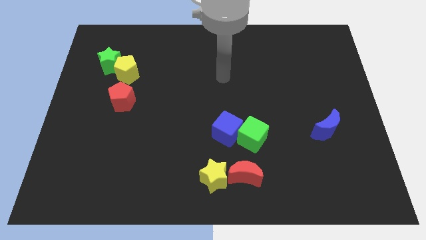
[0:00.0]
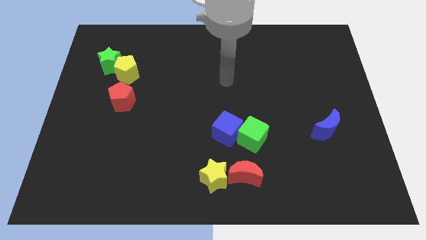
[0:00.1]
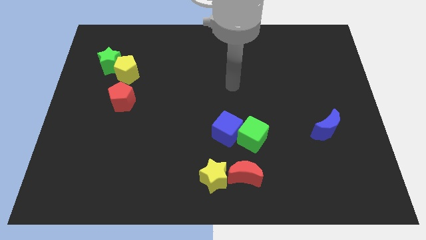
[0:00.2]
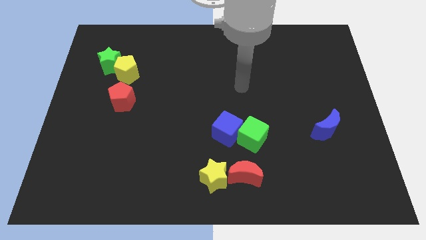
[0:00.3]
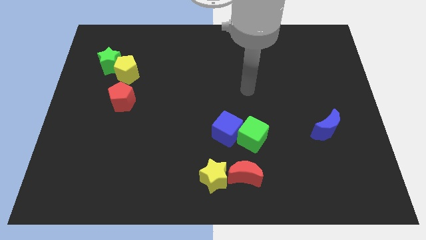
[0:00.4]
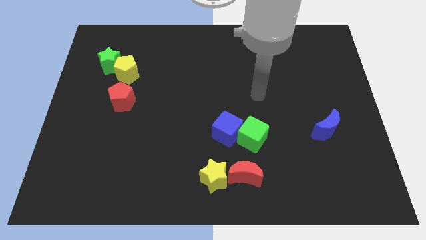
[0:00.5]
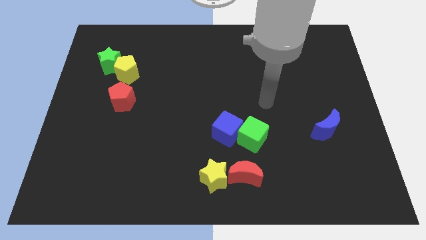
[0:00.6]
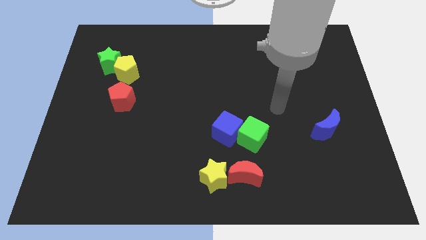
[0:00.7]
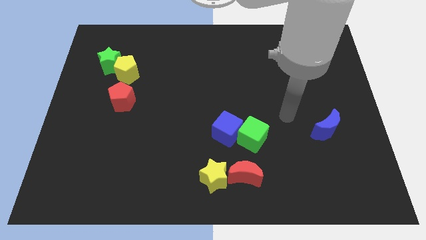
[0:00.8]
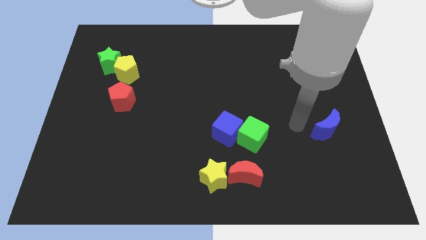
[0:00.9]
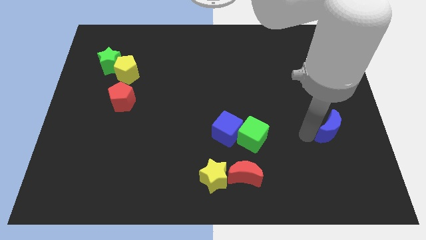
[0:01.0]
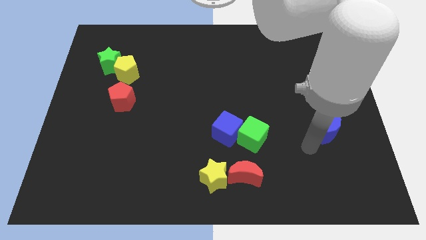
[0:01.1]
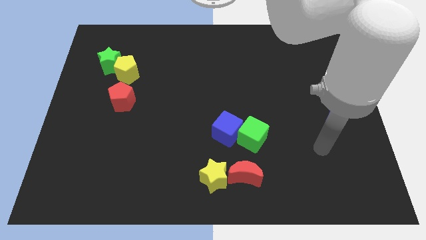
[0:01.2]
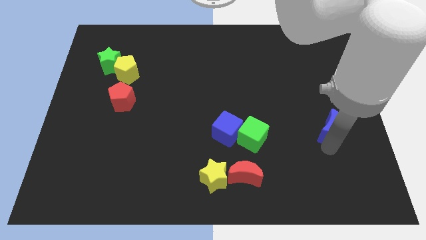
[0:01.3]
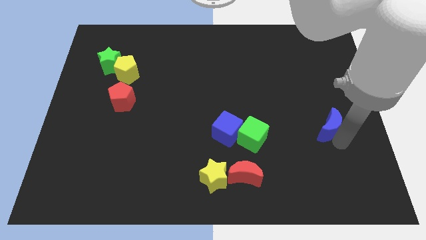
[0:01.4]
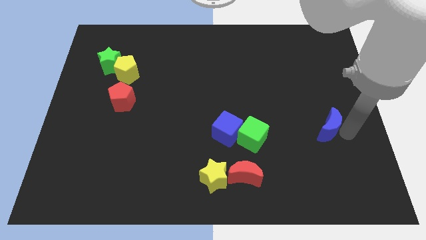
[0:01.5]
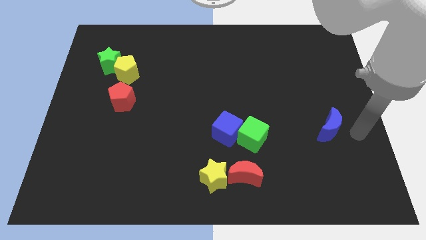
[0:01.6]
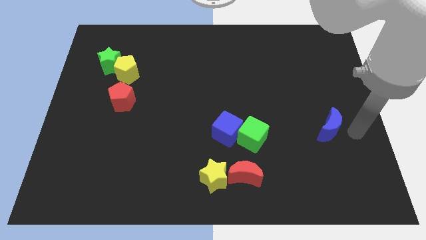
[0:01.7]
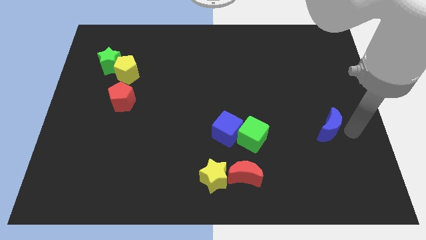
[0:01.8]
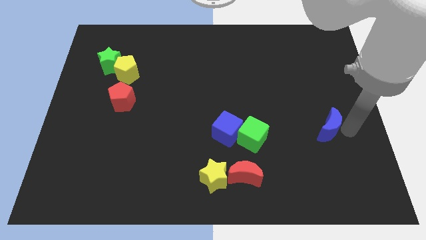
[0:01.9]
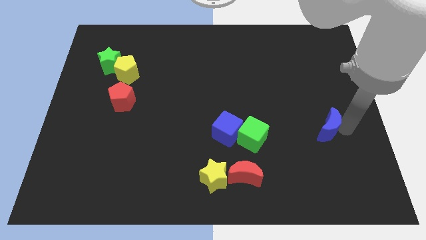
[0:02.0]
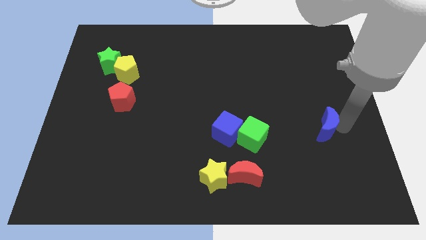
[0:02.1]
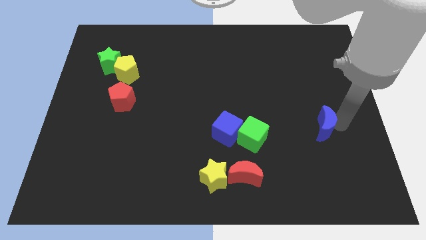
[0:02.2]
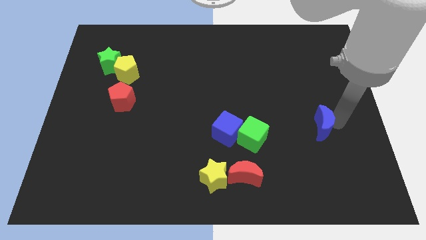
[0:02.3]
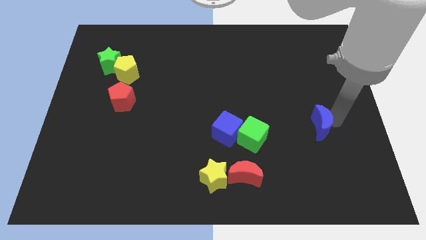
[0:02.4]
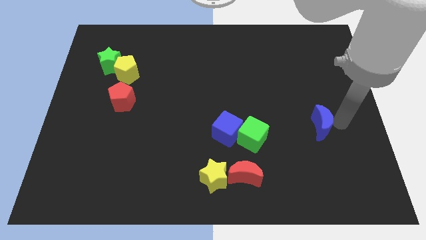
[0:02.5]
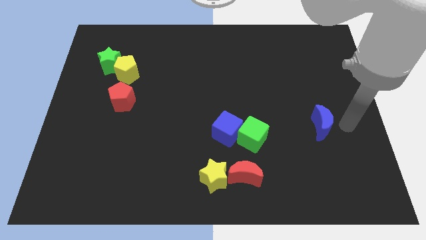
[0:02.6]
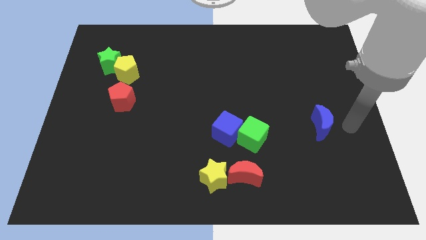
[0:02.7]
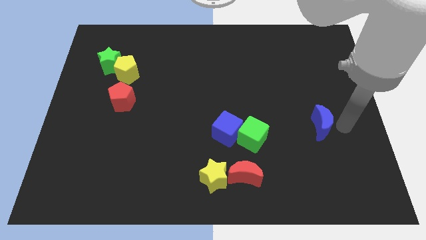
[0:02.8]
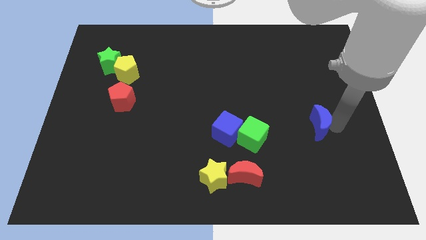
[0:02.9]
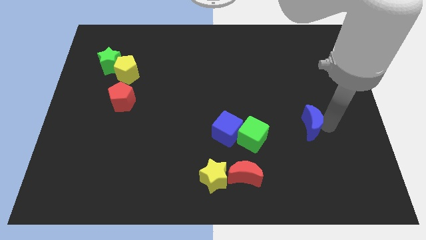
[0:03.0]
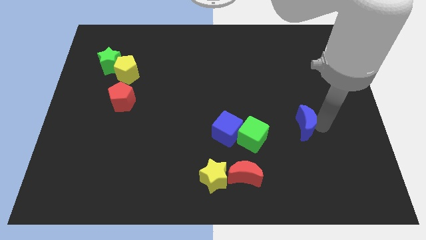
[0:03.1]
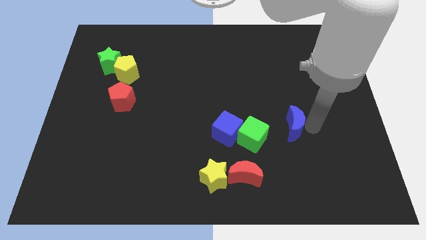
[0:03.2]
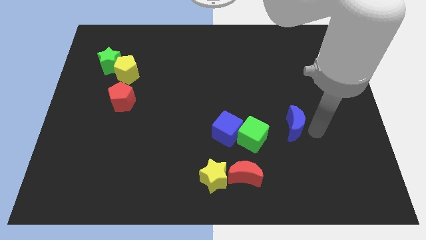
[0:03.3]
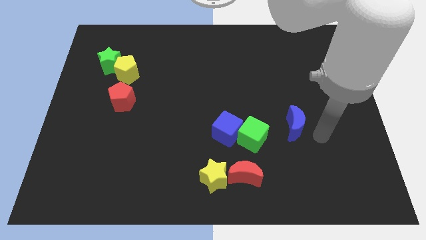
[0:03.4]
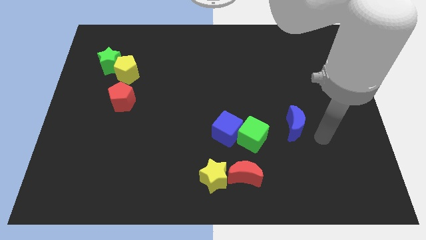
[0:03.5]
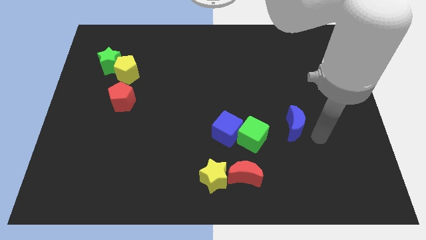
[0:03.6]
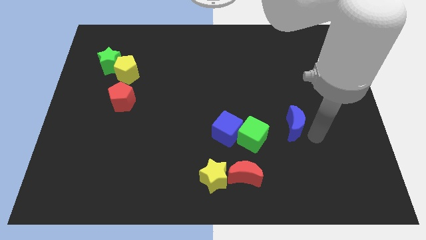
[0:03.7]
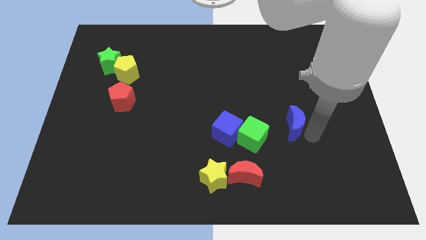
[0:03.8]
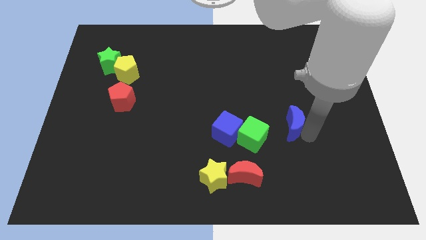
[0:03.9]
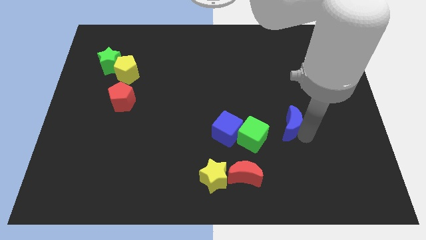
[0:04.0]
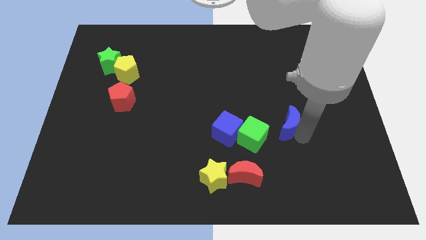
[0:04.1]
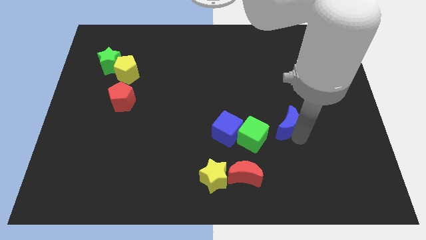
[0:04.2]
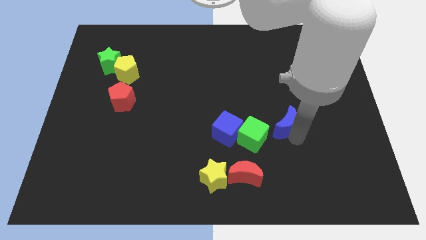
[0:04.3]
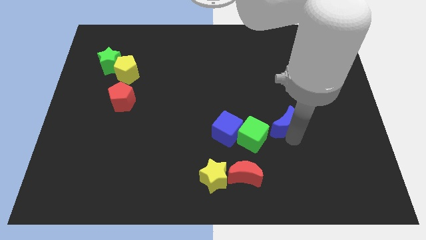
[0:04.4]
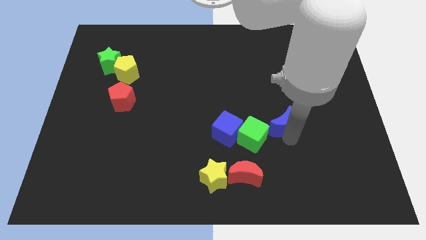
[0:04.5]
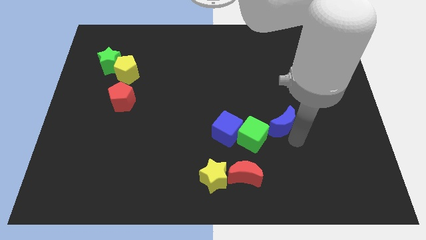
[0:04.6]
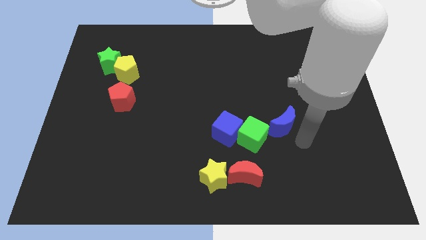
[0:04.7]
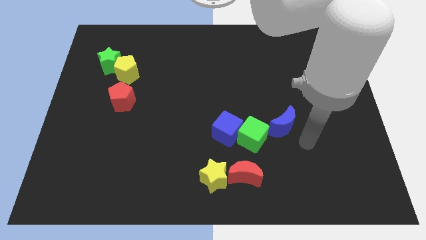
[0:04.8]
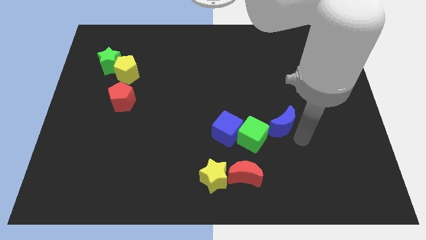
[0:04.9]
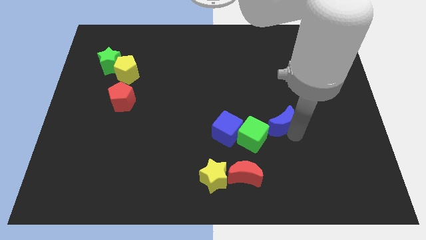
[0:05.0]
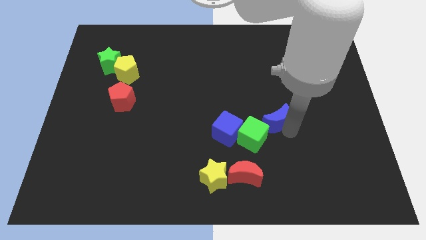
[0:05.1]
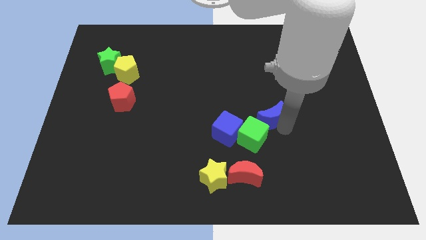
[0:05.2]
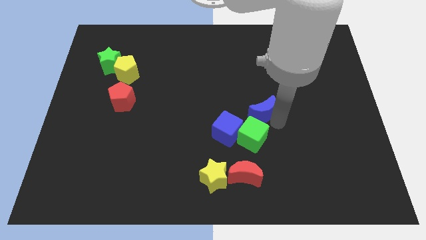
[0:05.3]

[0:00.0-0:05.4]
slide the blue moon to the middle of the board

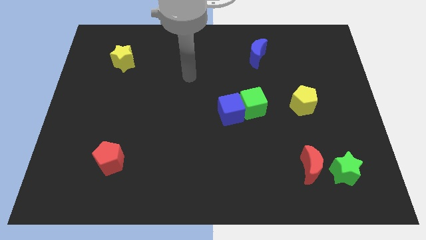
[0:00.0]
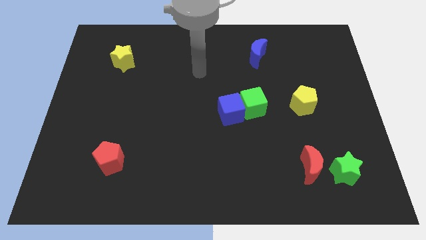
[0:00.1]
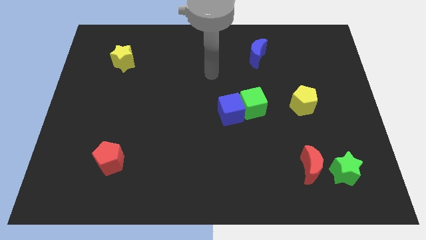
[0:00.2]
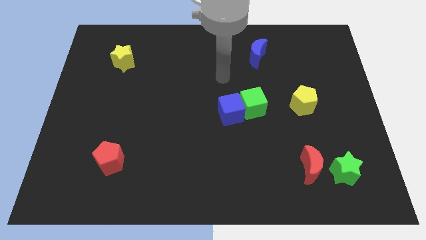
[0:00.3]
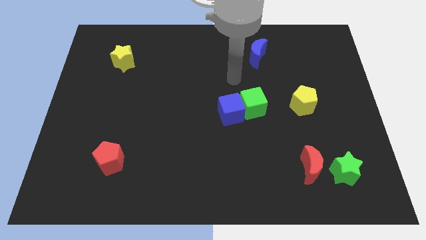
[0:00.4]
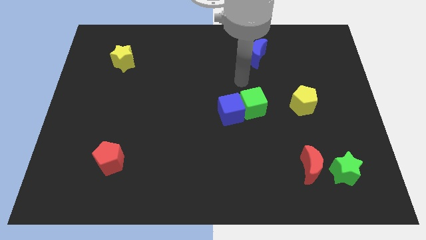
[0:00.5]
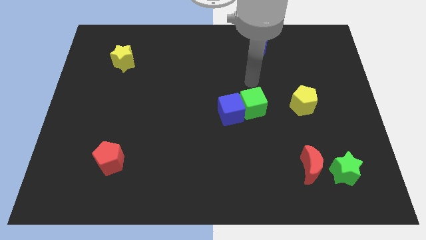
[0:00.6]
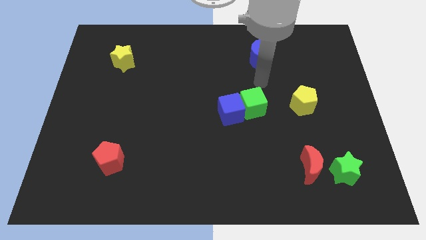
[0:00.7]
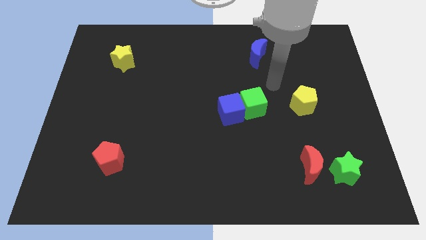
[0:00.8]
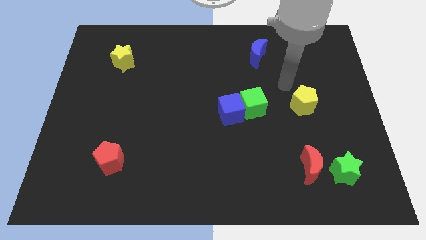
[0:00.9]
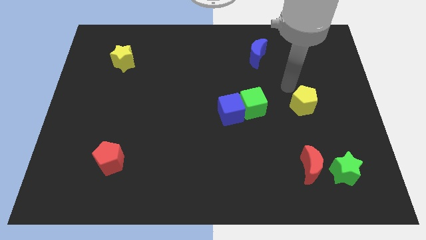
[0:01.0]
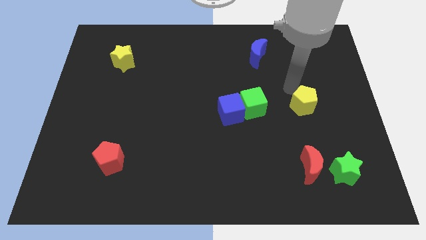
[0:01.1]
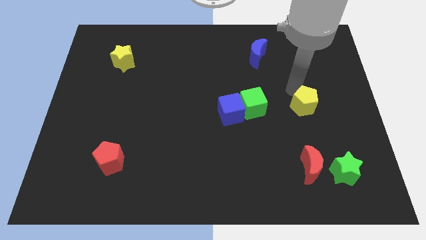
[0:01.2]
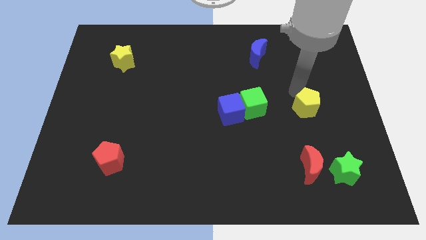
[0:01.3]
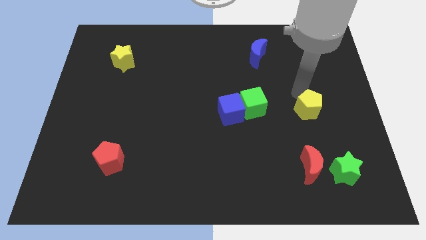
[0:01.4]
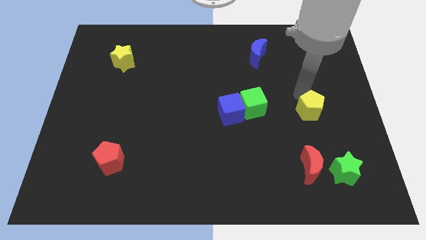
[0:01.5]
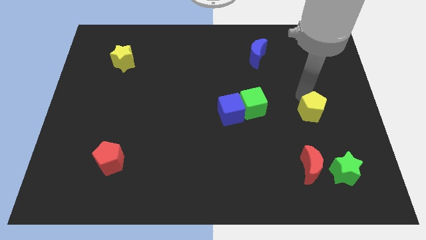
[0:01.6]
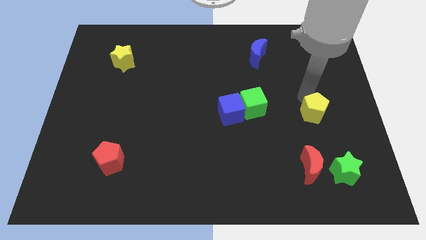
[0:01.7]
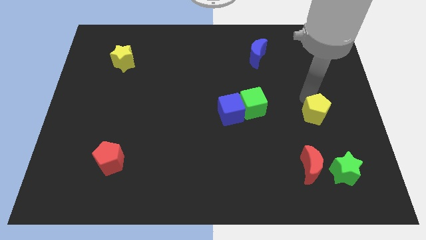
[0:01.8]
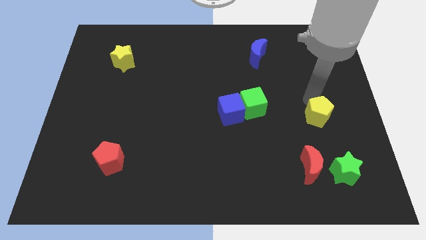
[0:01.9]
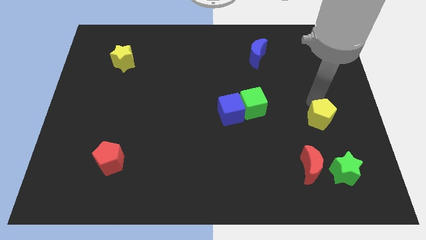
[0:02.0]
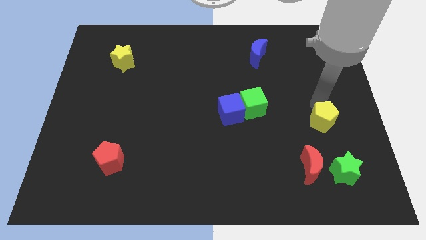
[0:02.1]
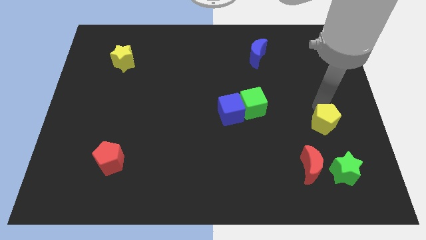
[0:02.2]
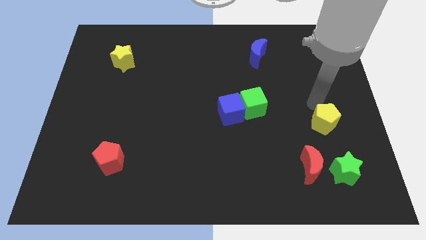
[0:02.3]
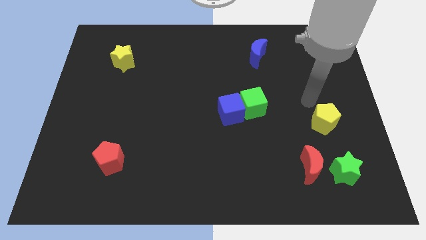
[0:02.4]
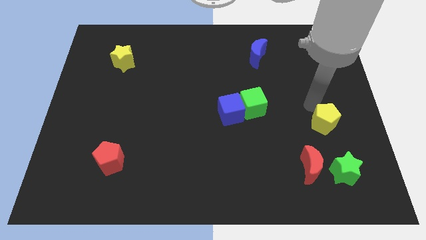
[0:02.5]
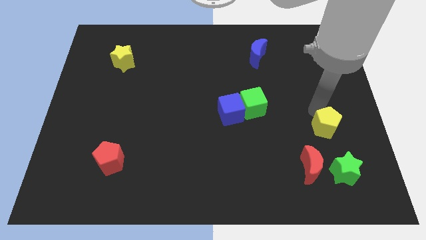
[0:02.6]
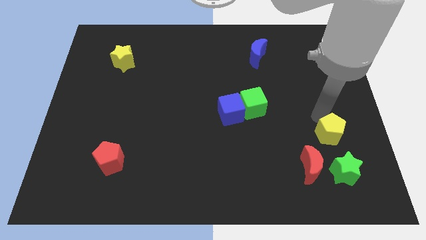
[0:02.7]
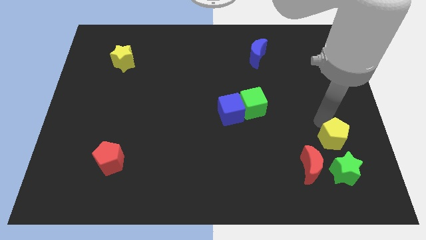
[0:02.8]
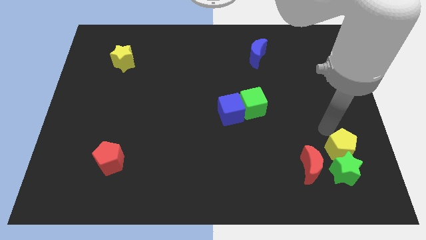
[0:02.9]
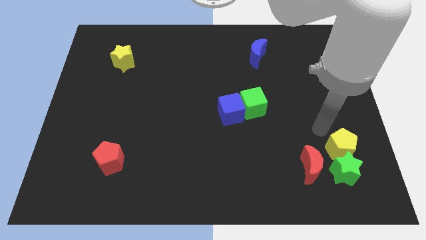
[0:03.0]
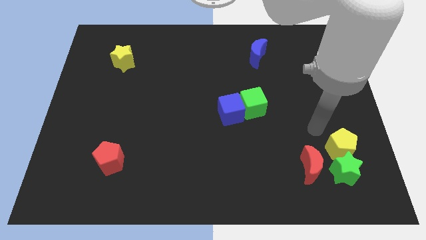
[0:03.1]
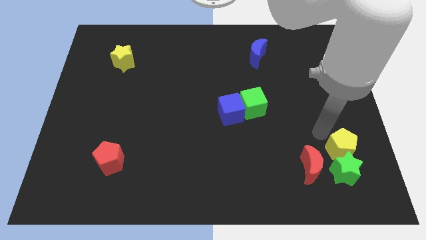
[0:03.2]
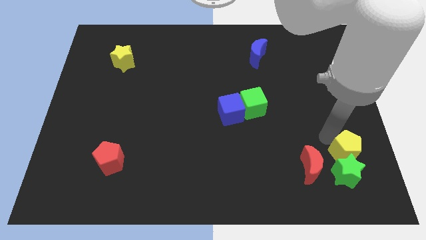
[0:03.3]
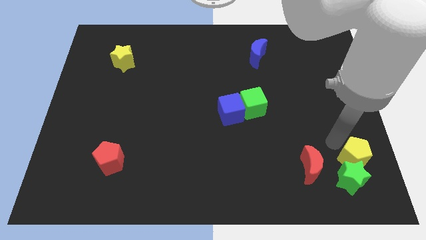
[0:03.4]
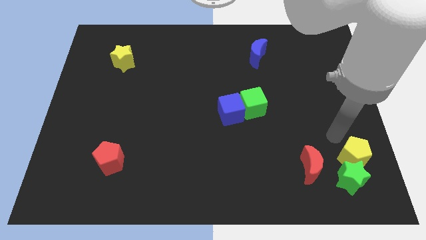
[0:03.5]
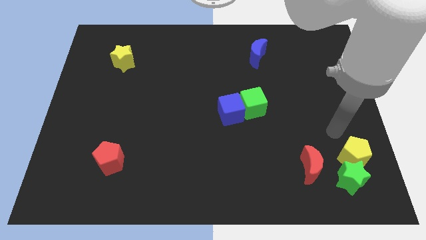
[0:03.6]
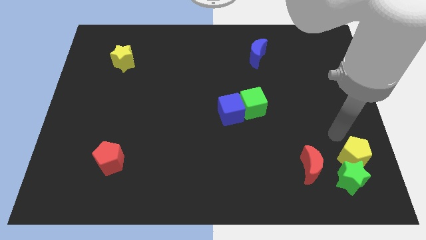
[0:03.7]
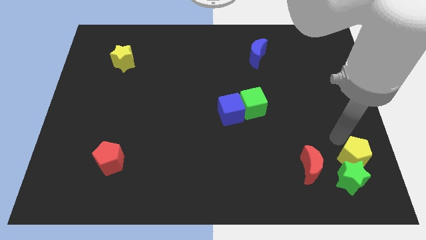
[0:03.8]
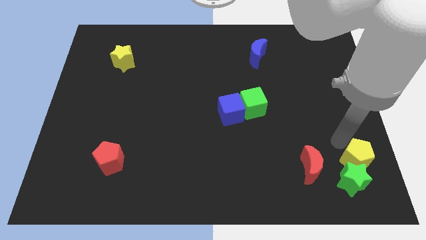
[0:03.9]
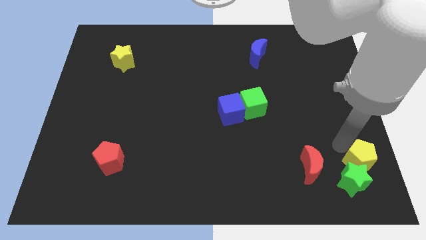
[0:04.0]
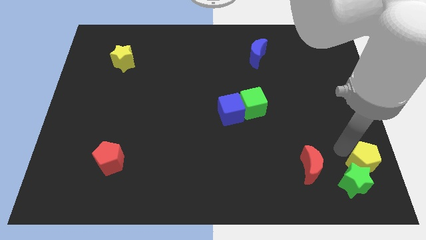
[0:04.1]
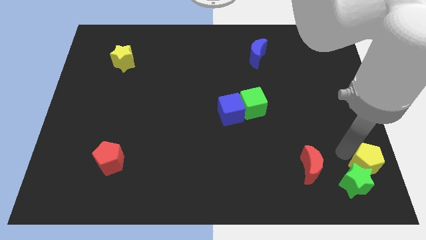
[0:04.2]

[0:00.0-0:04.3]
move the yellow pentagon to the lower right corner
